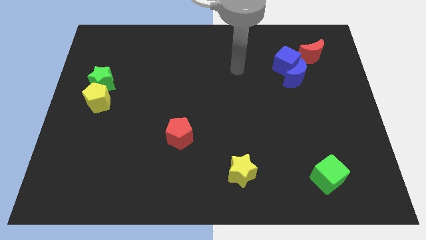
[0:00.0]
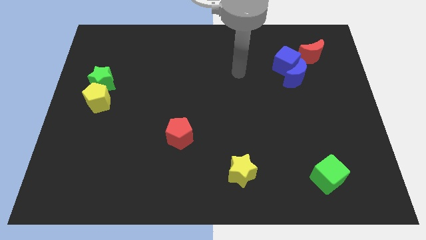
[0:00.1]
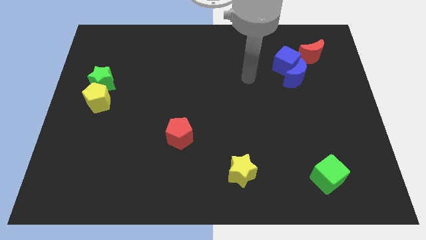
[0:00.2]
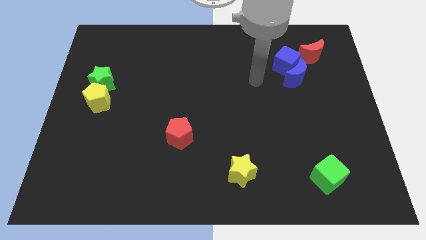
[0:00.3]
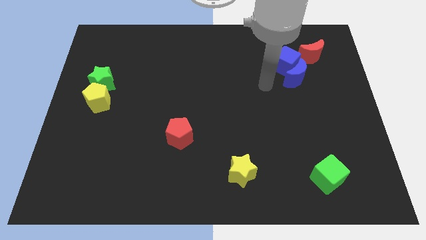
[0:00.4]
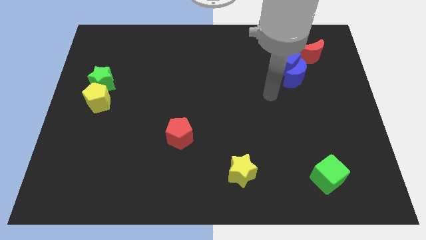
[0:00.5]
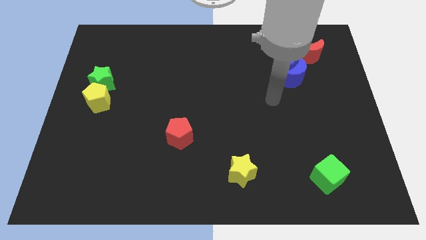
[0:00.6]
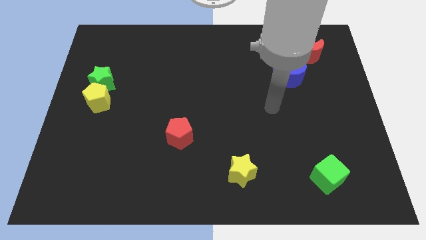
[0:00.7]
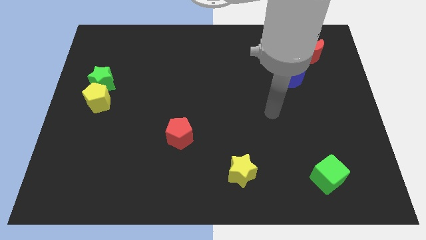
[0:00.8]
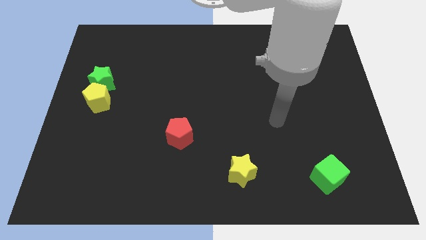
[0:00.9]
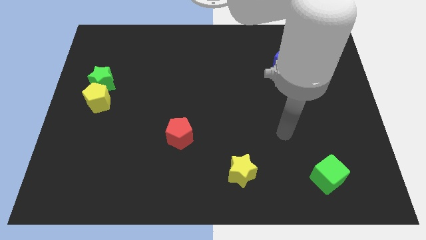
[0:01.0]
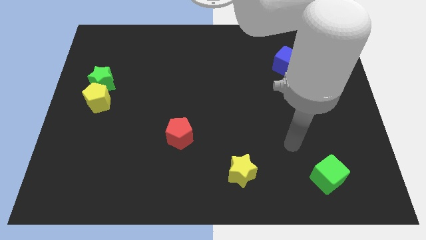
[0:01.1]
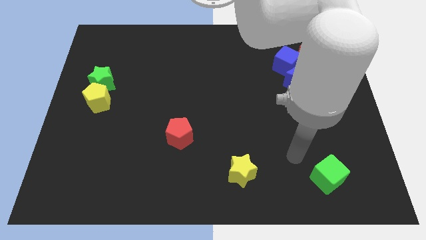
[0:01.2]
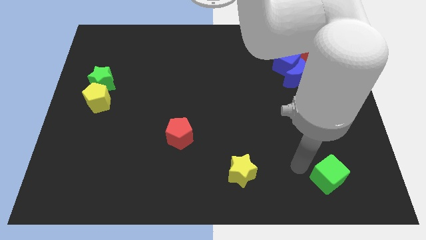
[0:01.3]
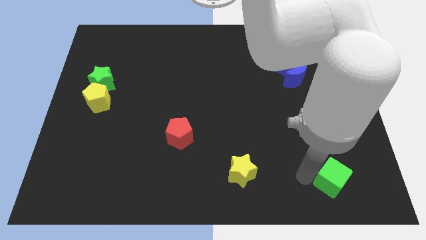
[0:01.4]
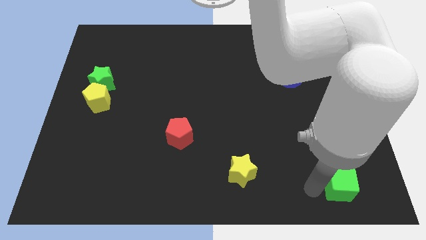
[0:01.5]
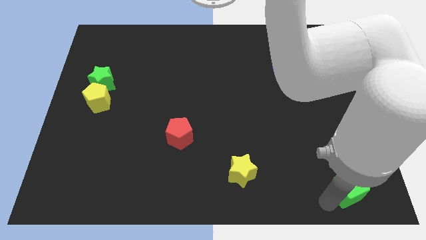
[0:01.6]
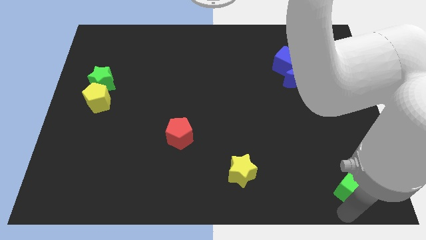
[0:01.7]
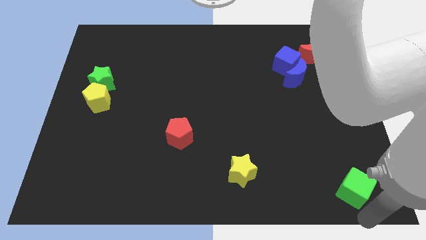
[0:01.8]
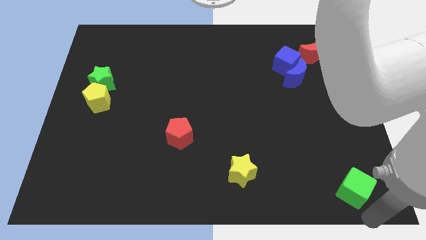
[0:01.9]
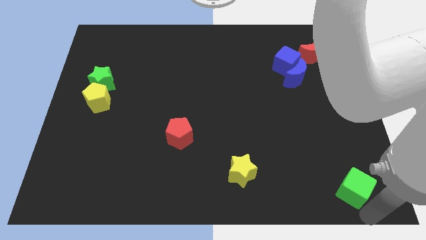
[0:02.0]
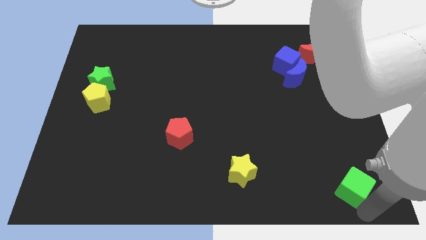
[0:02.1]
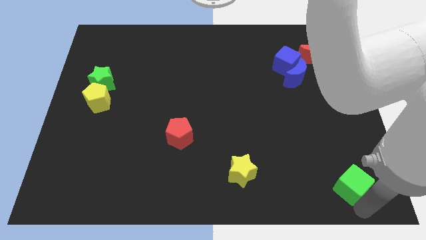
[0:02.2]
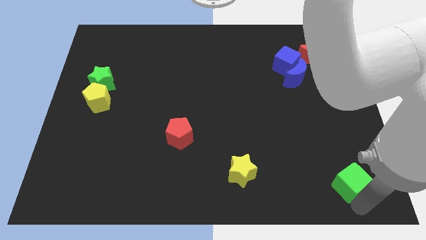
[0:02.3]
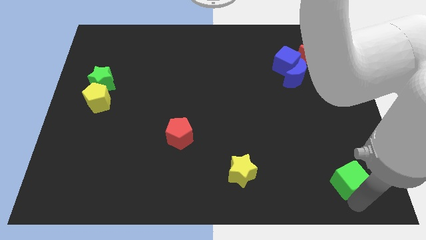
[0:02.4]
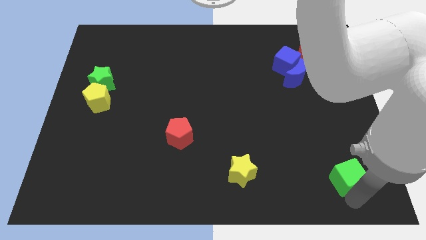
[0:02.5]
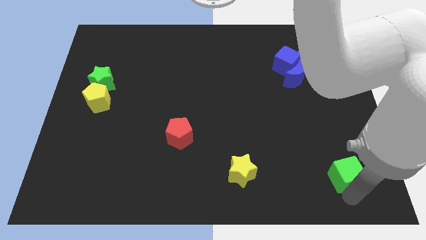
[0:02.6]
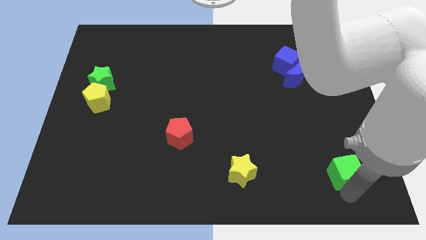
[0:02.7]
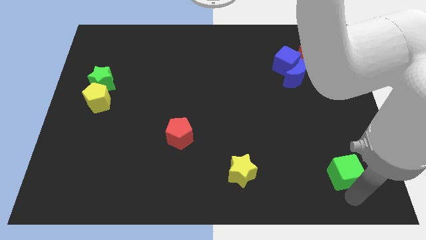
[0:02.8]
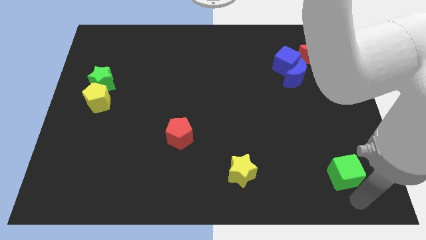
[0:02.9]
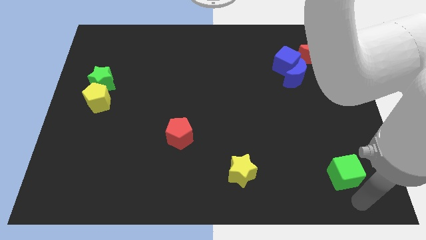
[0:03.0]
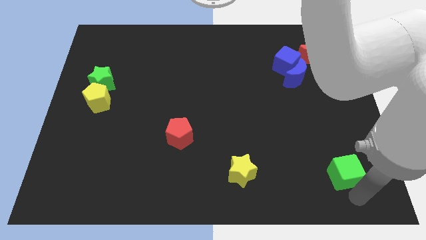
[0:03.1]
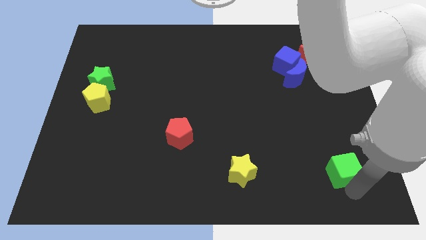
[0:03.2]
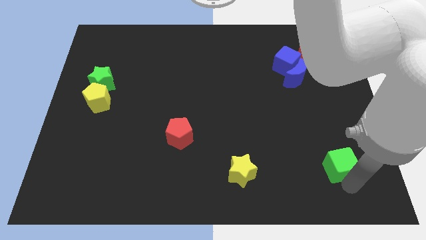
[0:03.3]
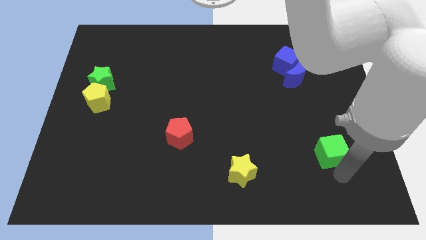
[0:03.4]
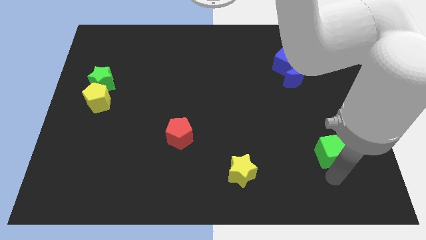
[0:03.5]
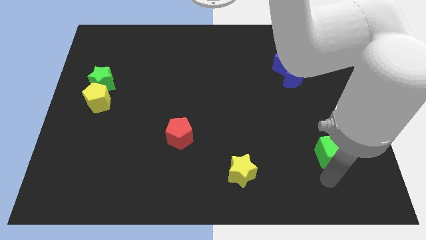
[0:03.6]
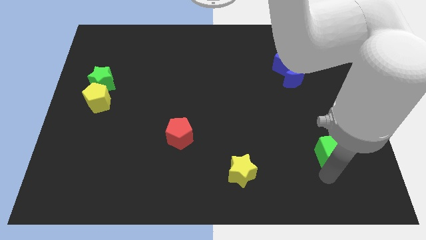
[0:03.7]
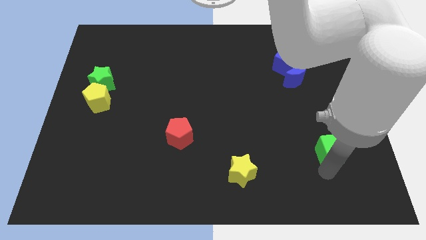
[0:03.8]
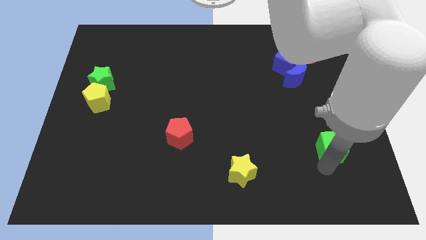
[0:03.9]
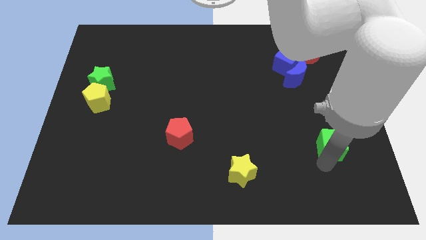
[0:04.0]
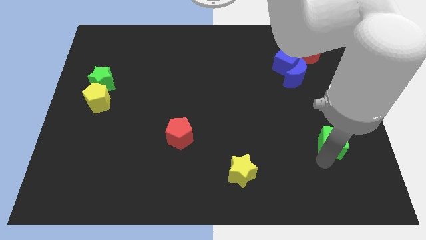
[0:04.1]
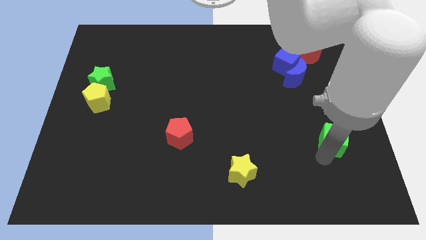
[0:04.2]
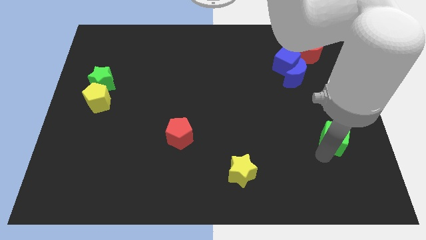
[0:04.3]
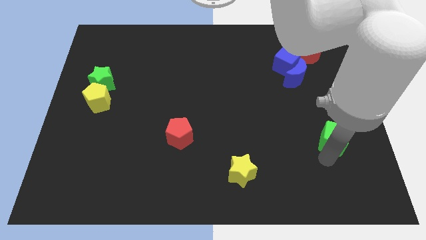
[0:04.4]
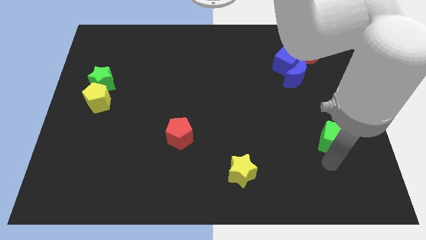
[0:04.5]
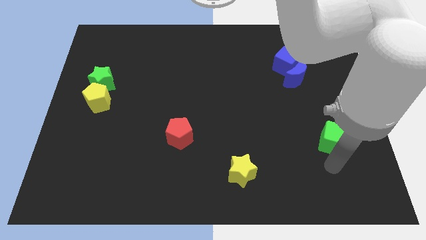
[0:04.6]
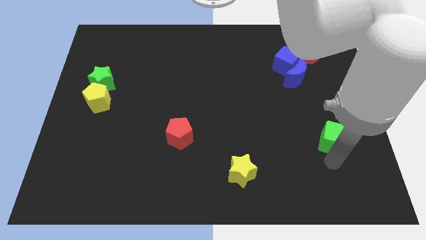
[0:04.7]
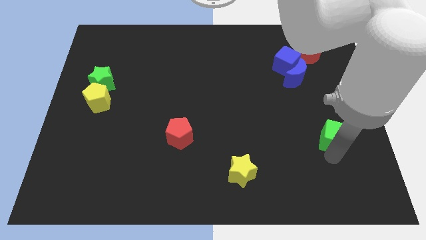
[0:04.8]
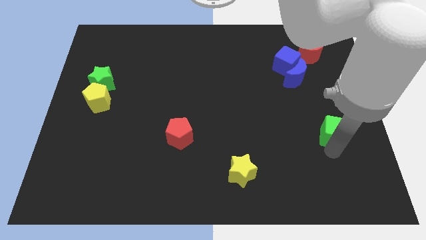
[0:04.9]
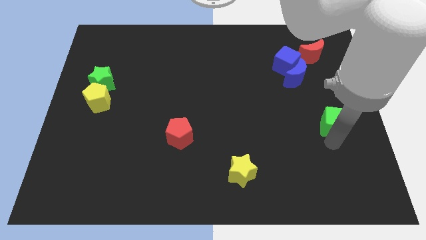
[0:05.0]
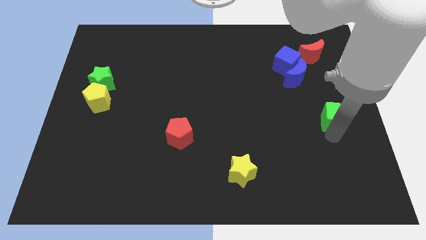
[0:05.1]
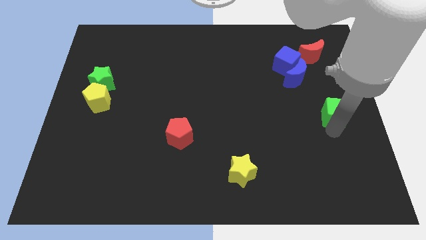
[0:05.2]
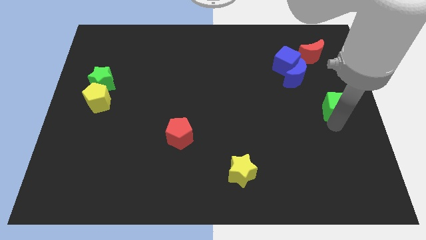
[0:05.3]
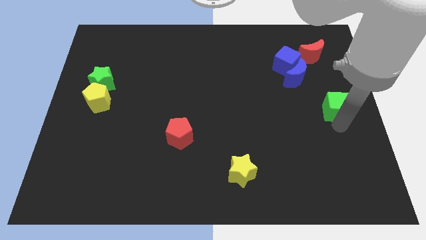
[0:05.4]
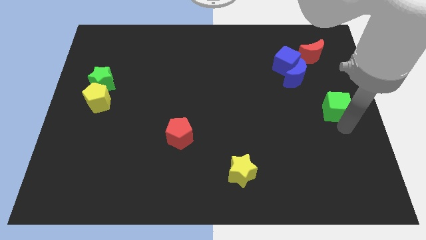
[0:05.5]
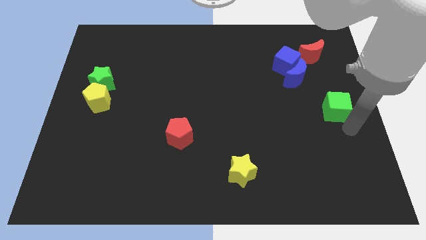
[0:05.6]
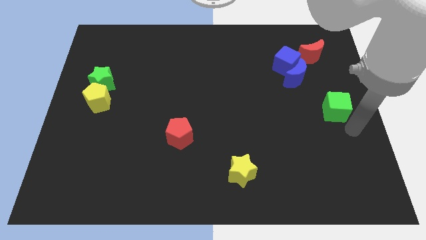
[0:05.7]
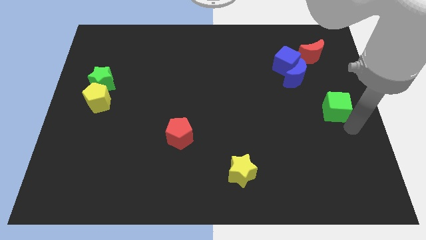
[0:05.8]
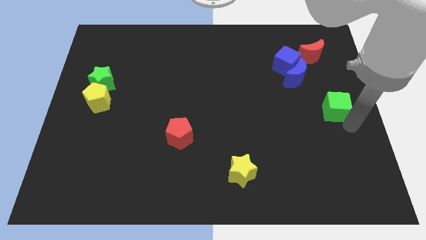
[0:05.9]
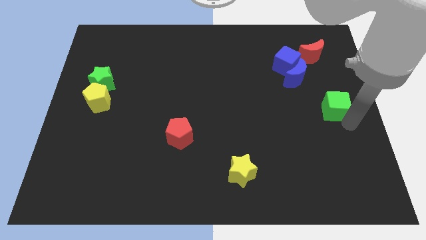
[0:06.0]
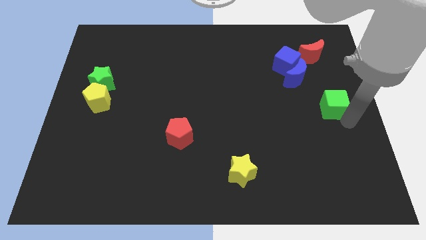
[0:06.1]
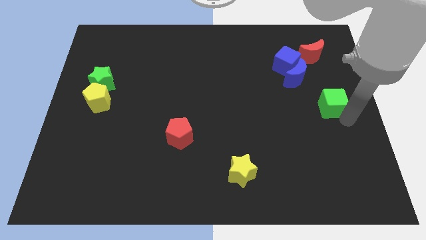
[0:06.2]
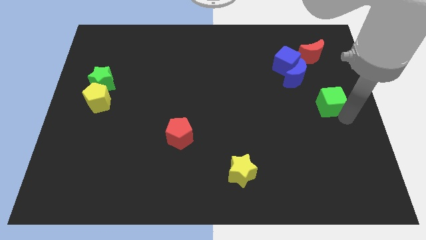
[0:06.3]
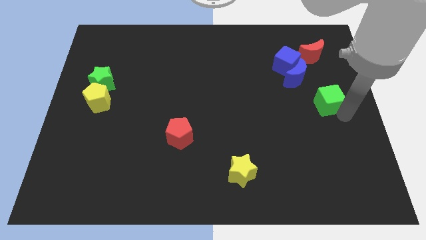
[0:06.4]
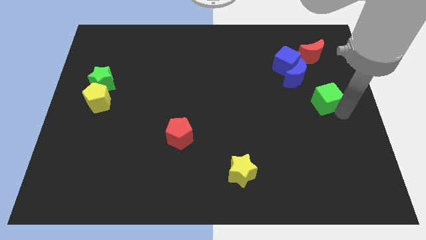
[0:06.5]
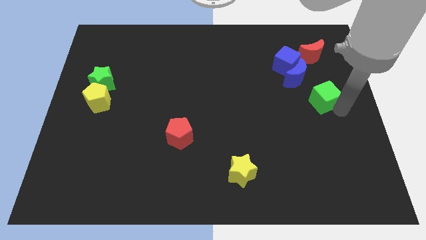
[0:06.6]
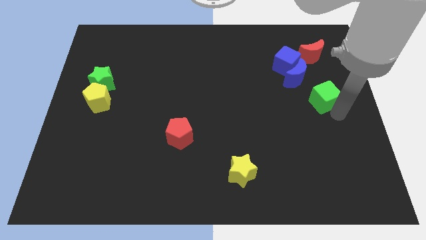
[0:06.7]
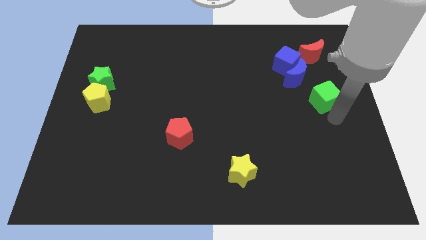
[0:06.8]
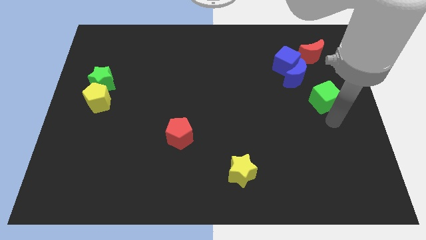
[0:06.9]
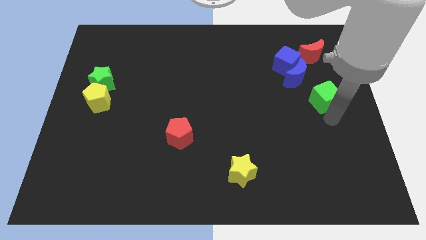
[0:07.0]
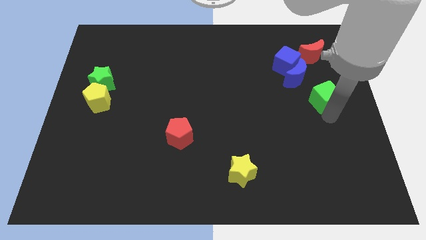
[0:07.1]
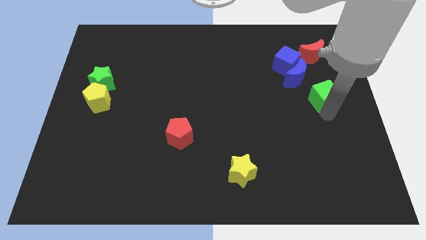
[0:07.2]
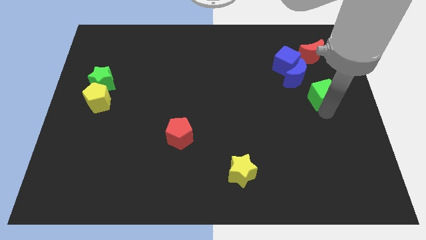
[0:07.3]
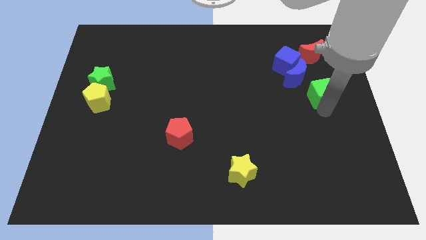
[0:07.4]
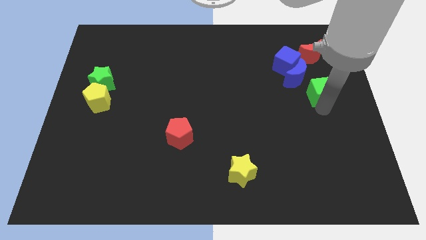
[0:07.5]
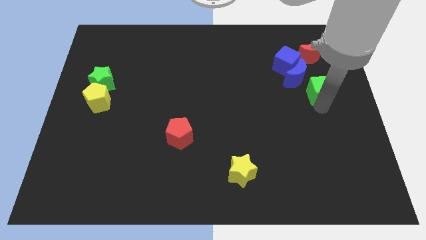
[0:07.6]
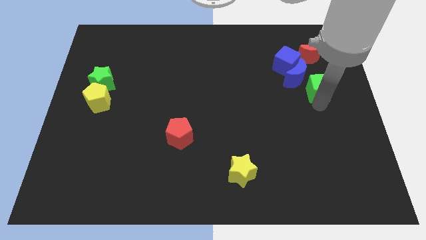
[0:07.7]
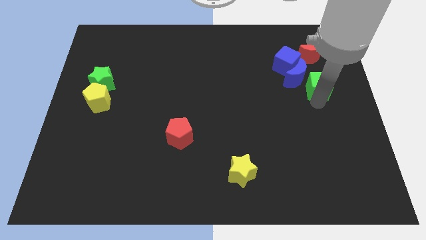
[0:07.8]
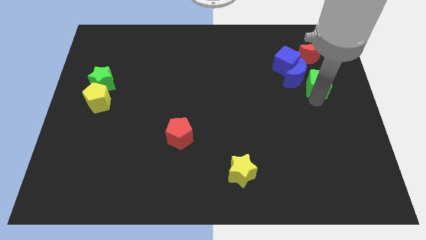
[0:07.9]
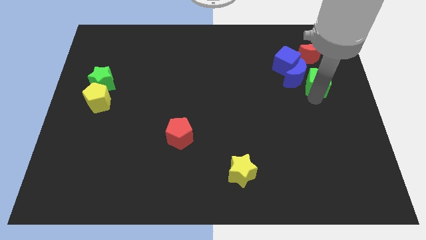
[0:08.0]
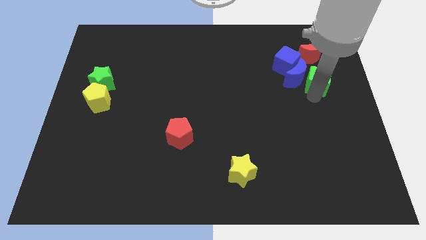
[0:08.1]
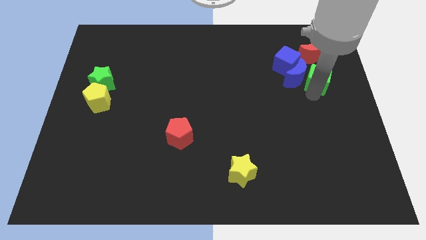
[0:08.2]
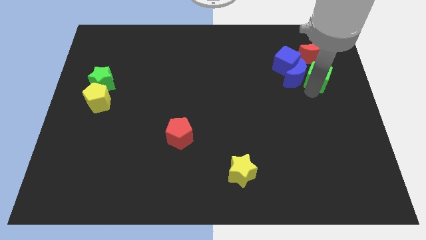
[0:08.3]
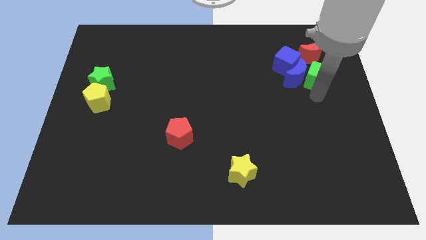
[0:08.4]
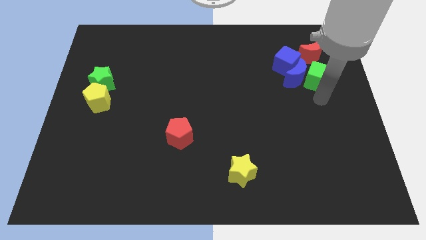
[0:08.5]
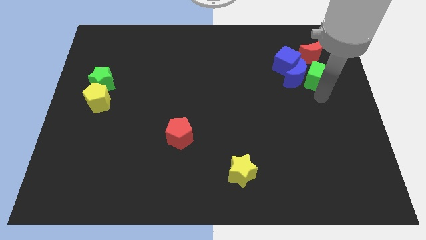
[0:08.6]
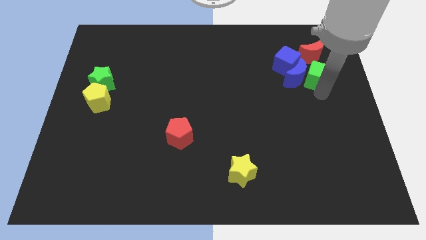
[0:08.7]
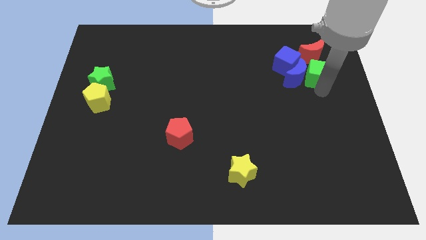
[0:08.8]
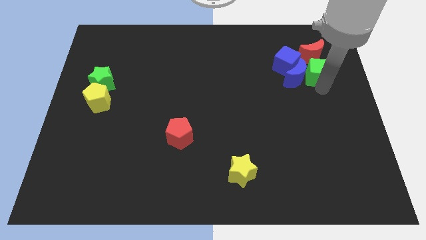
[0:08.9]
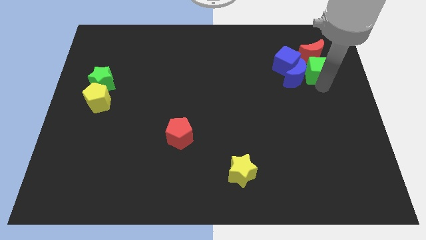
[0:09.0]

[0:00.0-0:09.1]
move the green cube next to the red moon
